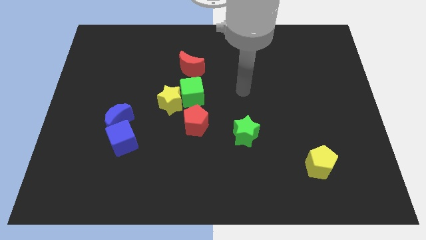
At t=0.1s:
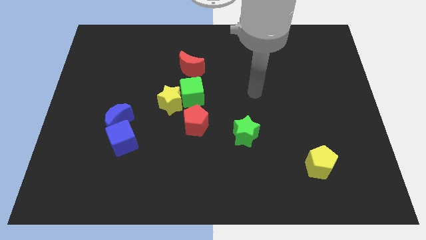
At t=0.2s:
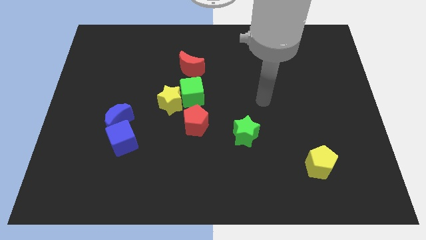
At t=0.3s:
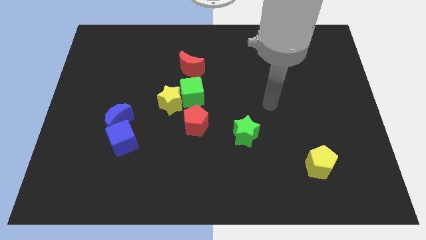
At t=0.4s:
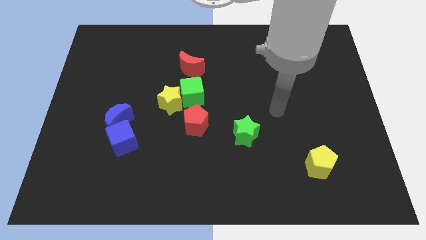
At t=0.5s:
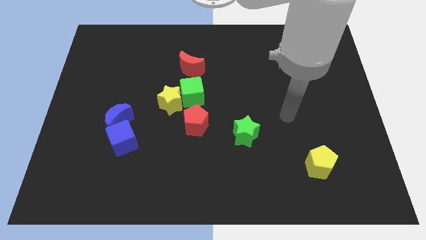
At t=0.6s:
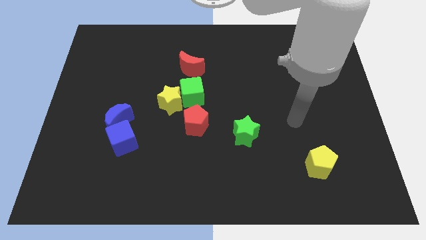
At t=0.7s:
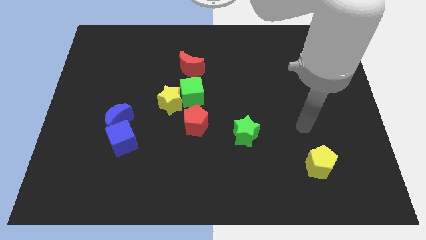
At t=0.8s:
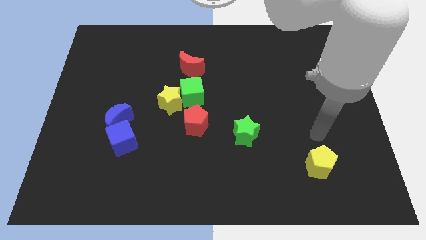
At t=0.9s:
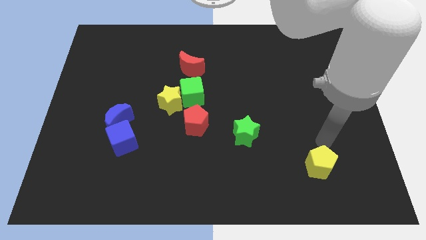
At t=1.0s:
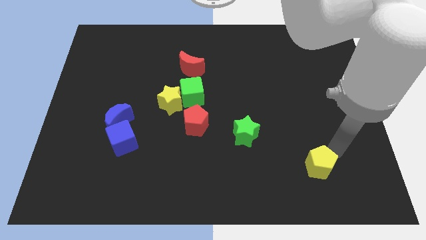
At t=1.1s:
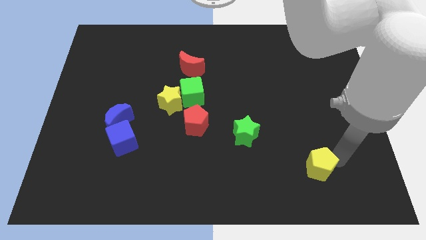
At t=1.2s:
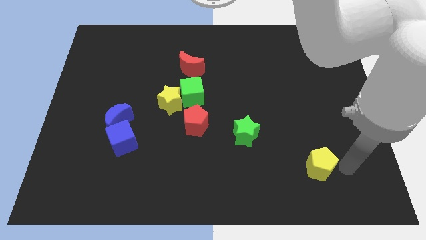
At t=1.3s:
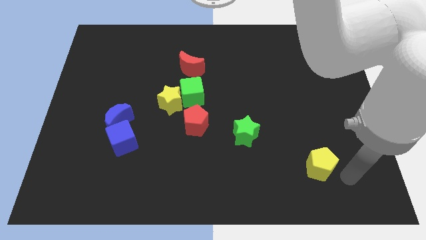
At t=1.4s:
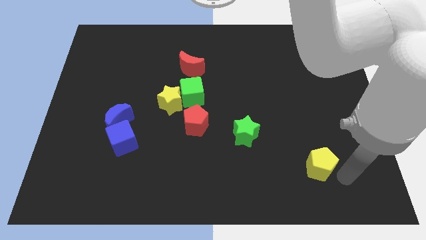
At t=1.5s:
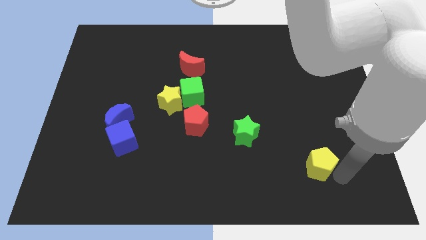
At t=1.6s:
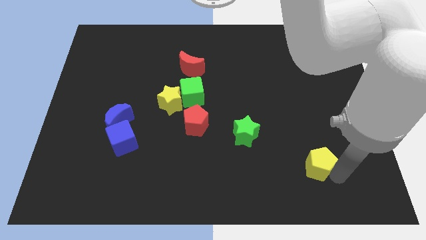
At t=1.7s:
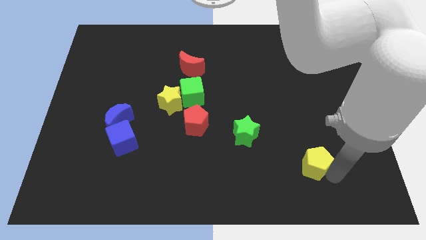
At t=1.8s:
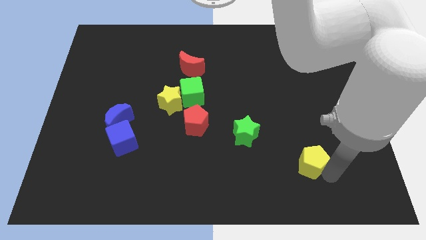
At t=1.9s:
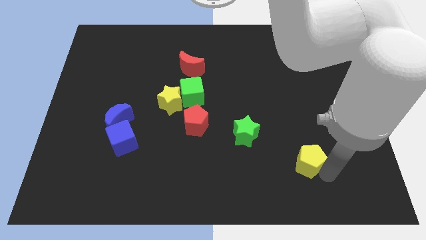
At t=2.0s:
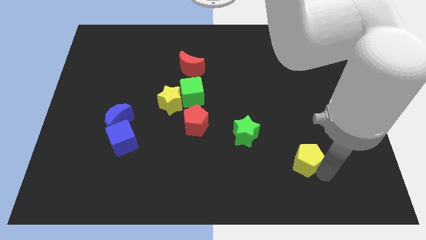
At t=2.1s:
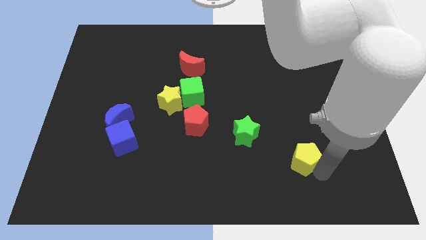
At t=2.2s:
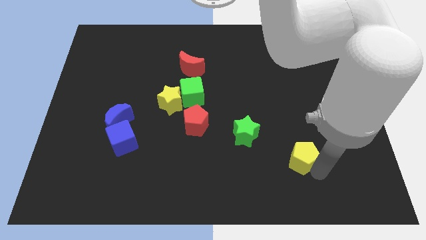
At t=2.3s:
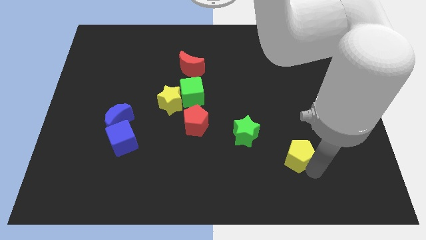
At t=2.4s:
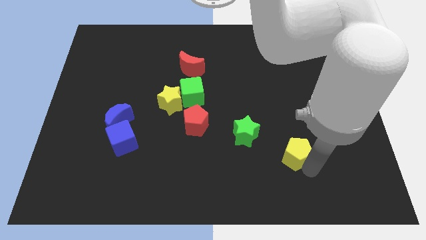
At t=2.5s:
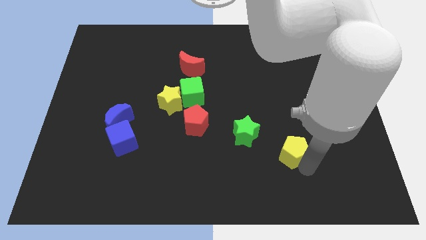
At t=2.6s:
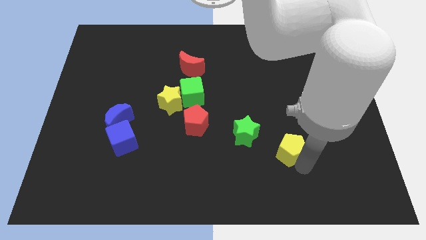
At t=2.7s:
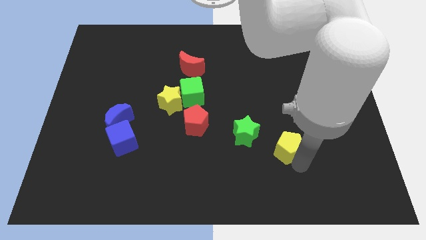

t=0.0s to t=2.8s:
move the yellow pentagon a bit diagonally upwards and left

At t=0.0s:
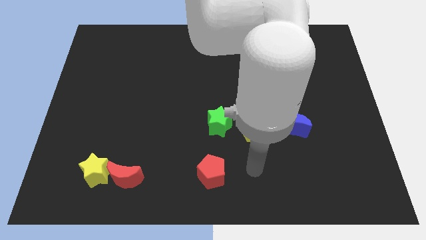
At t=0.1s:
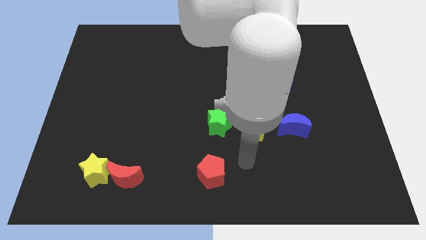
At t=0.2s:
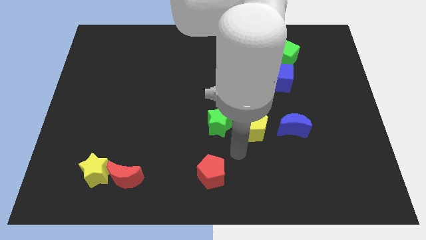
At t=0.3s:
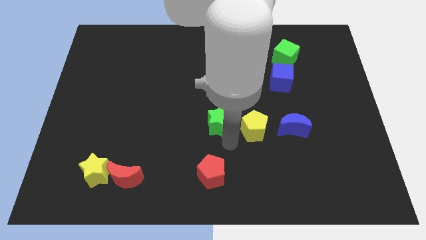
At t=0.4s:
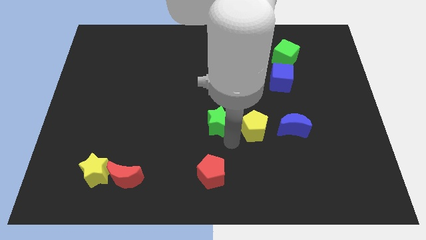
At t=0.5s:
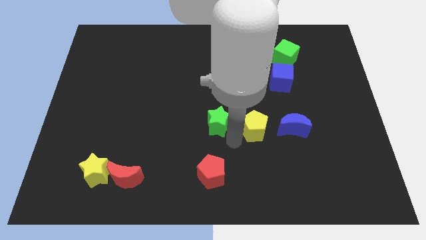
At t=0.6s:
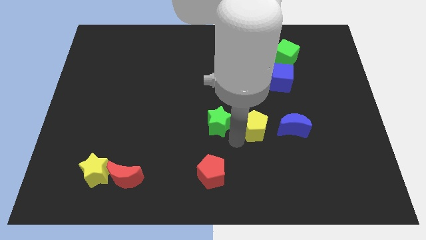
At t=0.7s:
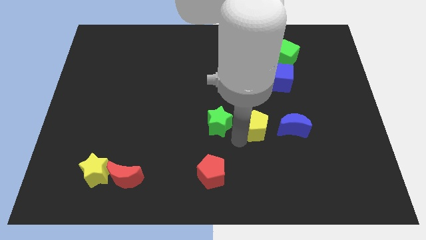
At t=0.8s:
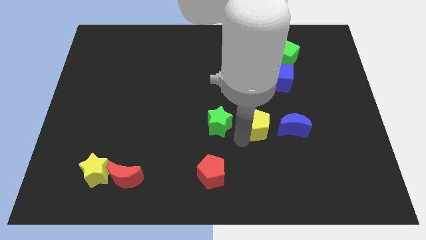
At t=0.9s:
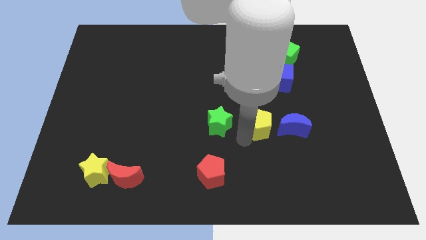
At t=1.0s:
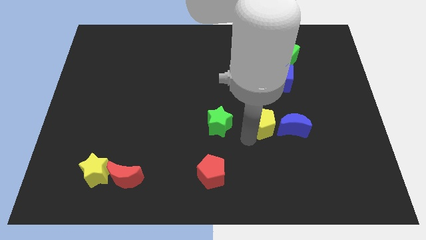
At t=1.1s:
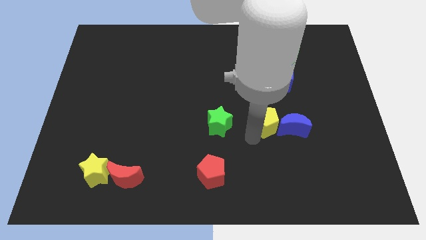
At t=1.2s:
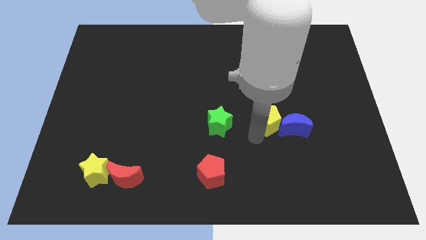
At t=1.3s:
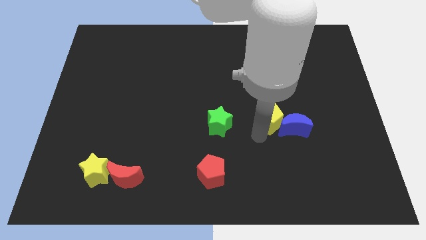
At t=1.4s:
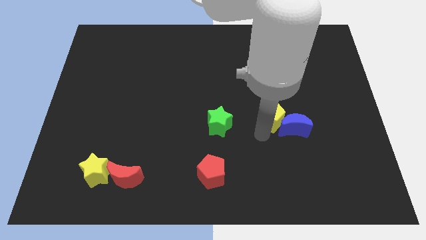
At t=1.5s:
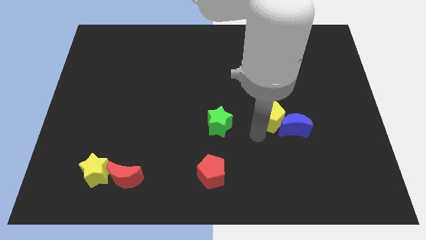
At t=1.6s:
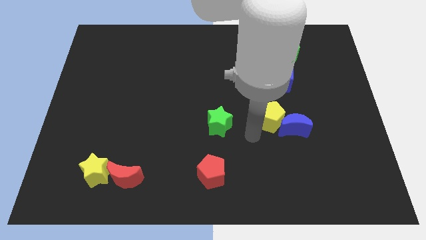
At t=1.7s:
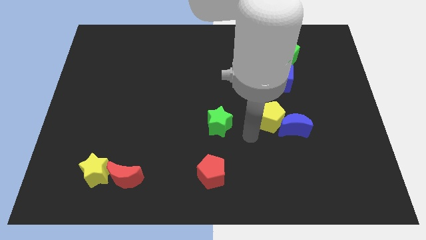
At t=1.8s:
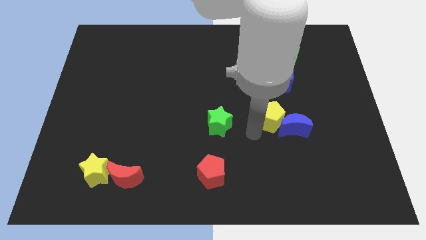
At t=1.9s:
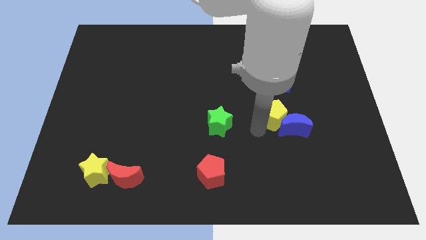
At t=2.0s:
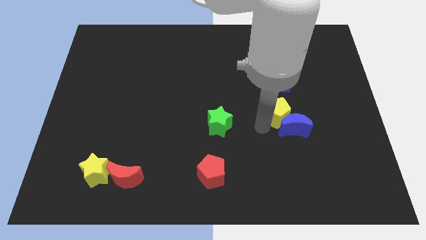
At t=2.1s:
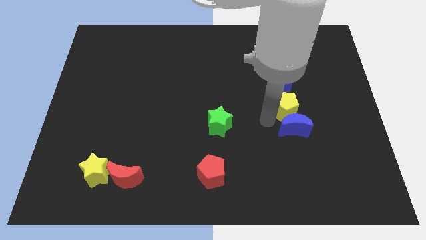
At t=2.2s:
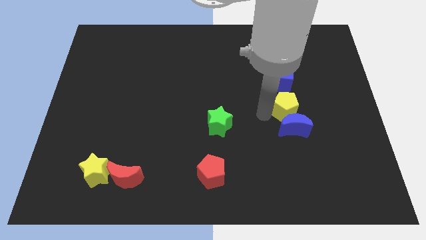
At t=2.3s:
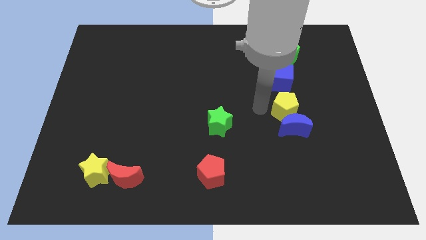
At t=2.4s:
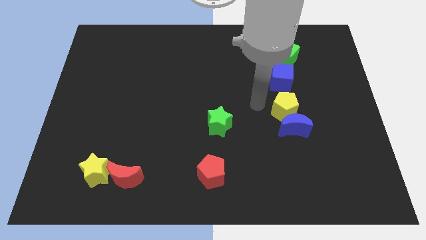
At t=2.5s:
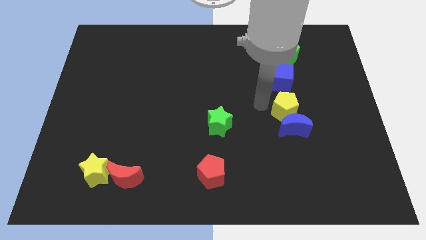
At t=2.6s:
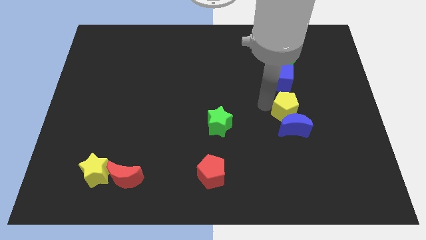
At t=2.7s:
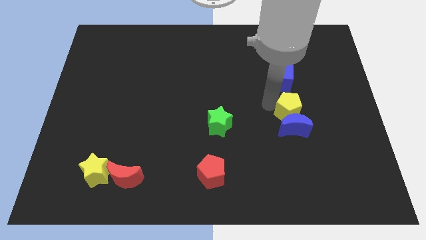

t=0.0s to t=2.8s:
move the yellow pentagon a little to the right

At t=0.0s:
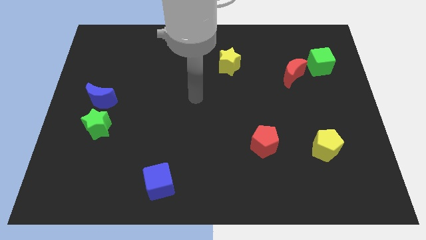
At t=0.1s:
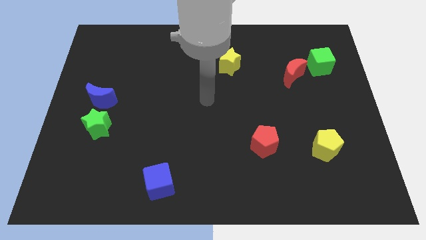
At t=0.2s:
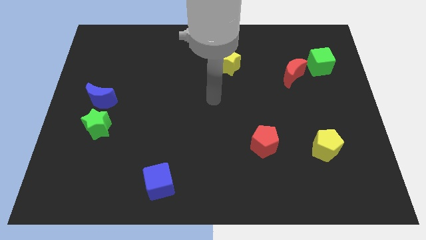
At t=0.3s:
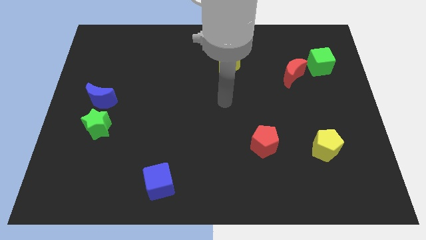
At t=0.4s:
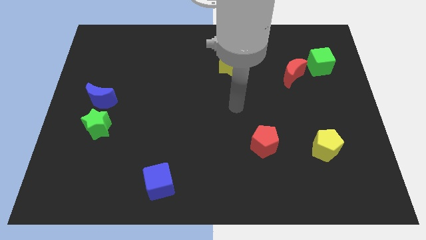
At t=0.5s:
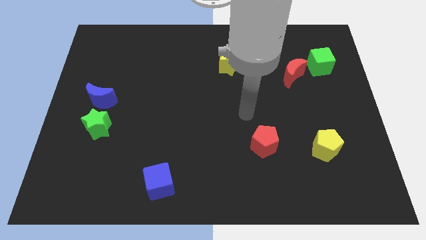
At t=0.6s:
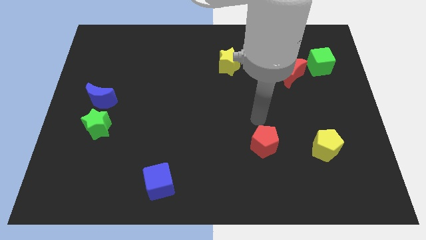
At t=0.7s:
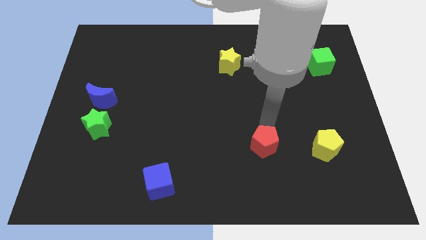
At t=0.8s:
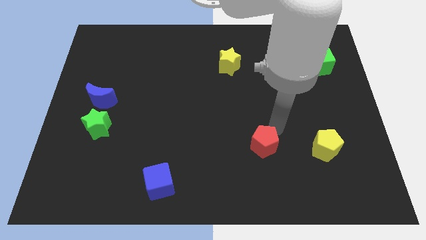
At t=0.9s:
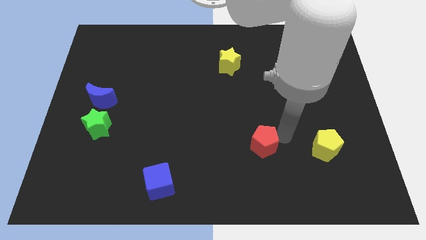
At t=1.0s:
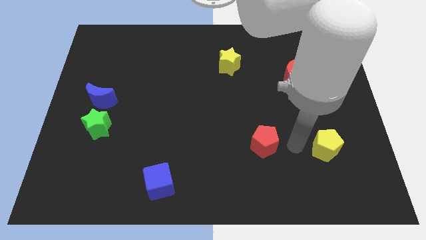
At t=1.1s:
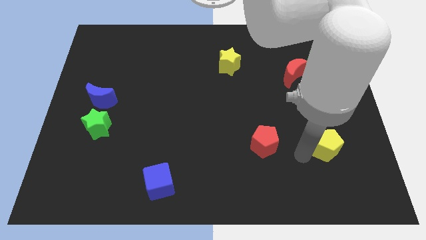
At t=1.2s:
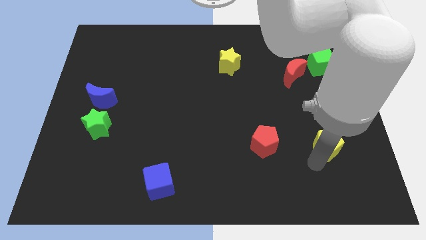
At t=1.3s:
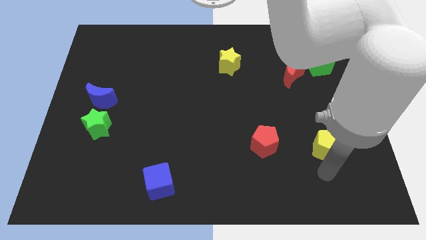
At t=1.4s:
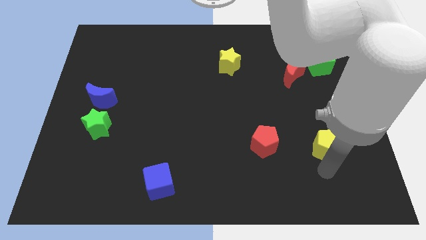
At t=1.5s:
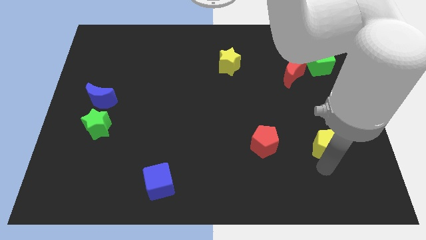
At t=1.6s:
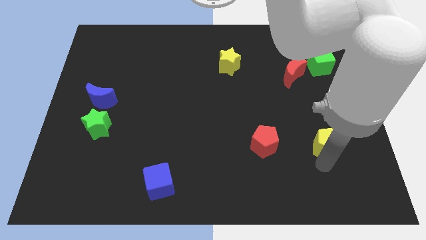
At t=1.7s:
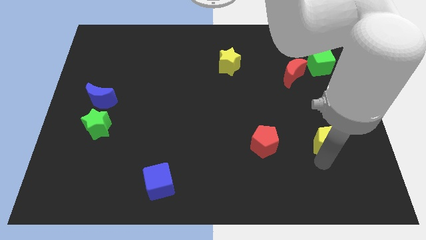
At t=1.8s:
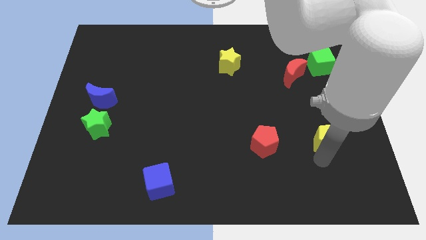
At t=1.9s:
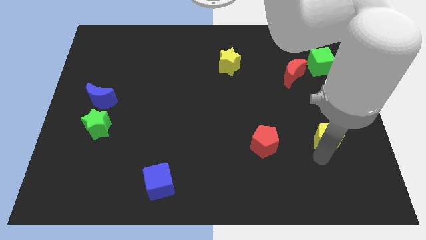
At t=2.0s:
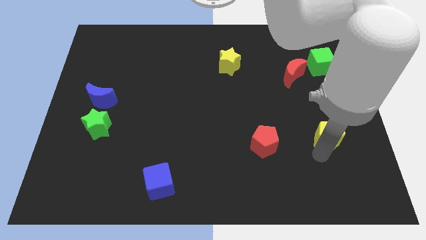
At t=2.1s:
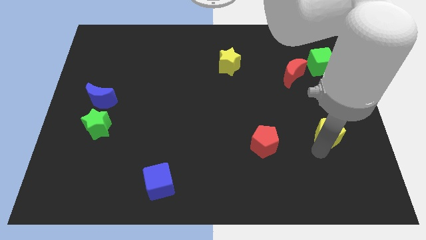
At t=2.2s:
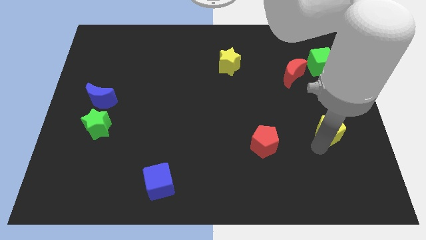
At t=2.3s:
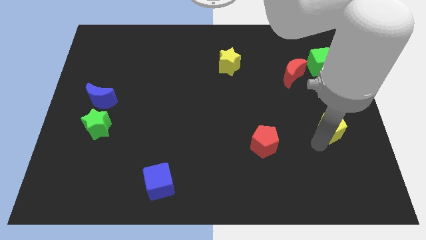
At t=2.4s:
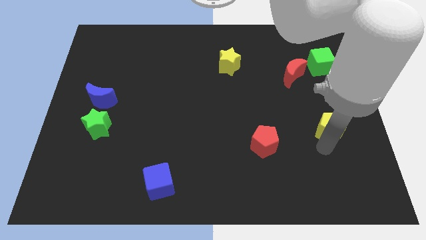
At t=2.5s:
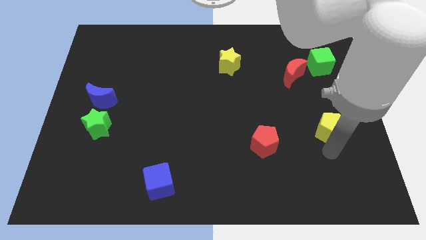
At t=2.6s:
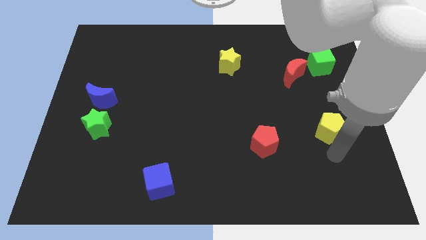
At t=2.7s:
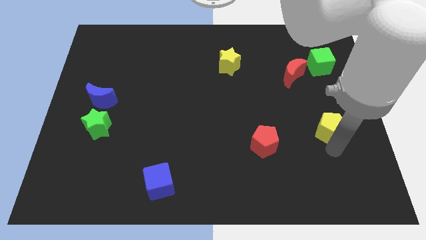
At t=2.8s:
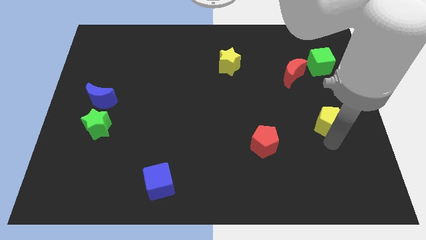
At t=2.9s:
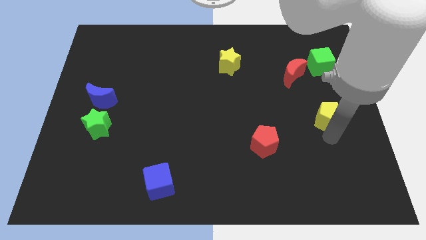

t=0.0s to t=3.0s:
push the yellow pentagon up a little bit
